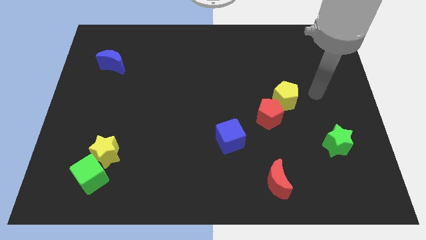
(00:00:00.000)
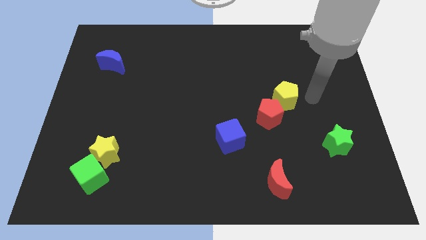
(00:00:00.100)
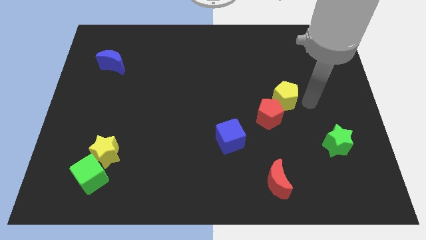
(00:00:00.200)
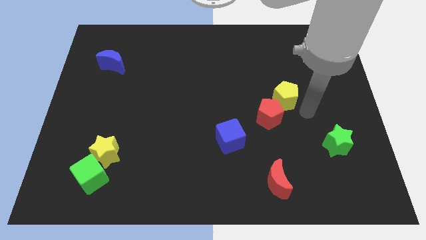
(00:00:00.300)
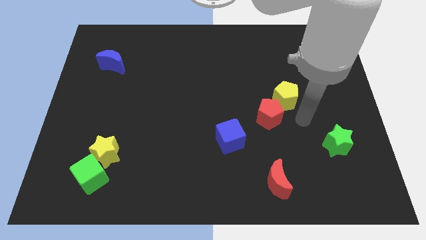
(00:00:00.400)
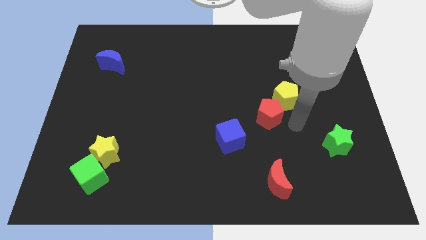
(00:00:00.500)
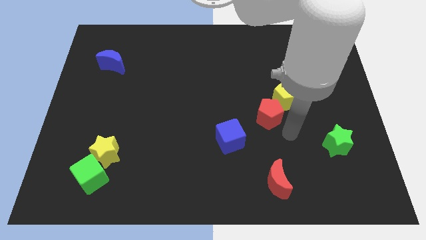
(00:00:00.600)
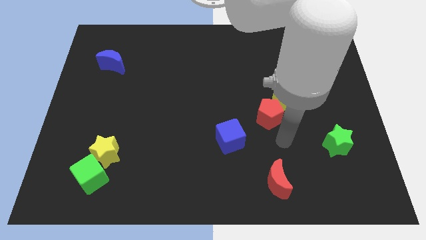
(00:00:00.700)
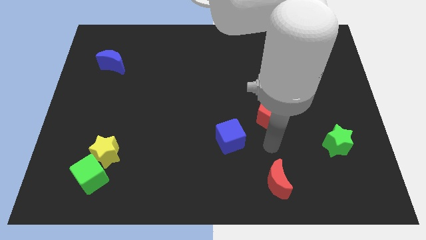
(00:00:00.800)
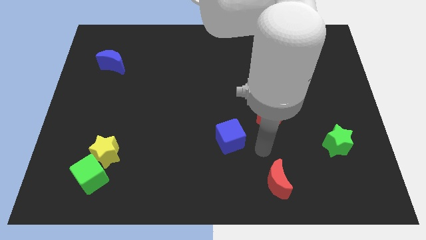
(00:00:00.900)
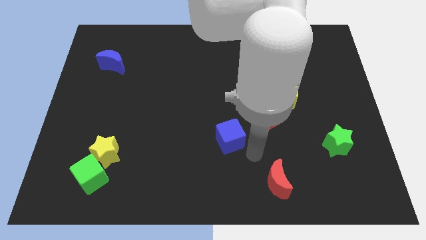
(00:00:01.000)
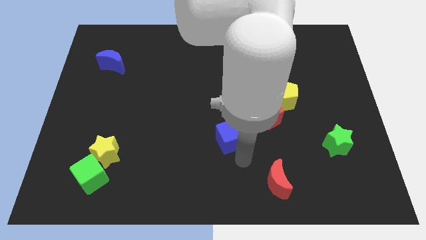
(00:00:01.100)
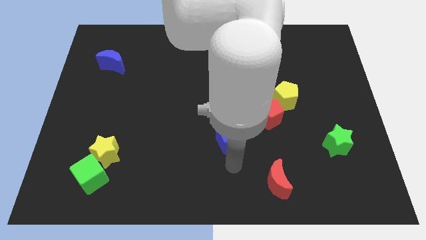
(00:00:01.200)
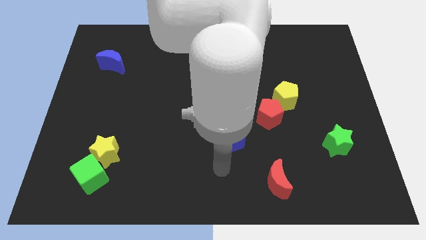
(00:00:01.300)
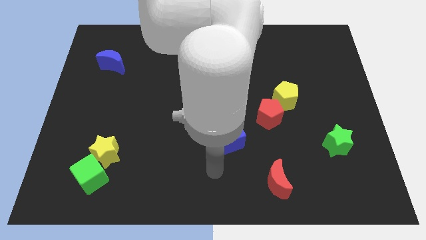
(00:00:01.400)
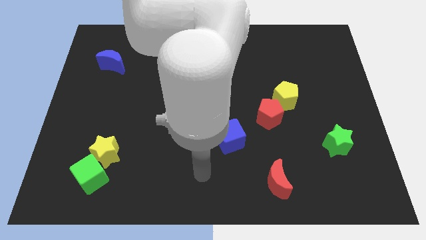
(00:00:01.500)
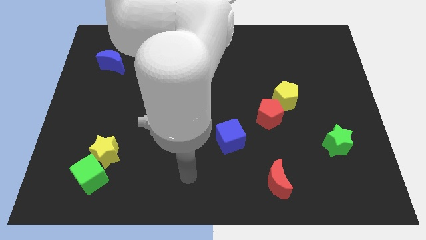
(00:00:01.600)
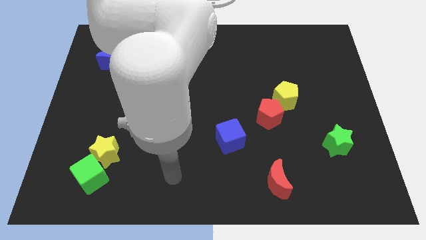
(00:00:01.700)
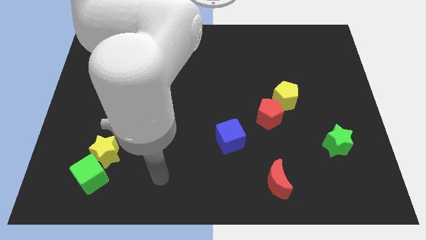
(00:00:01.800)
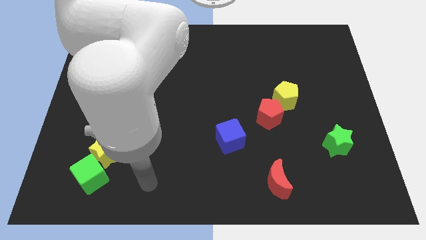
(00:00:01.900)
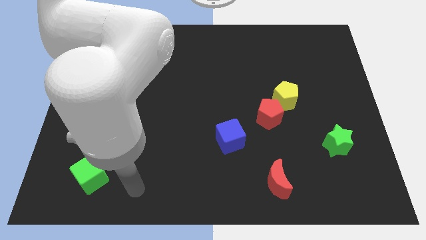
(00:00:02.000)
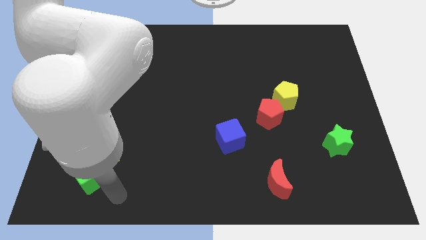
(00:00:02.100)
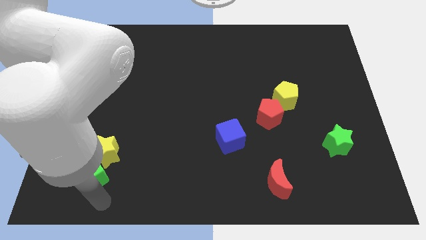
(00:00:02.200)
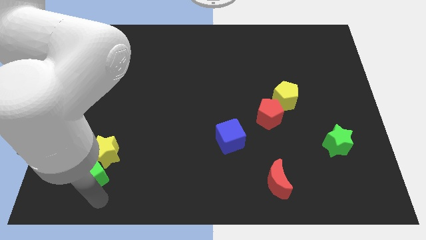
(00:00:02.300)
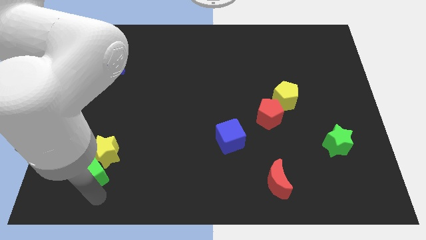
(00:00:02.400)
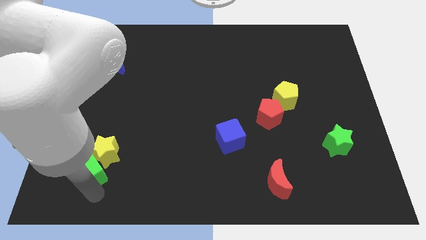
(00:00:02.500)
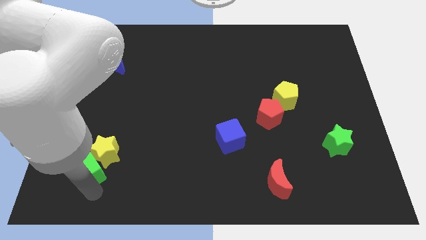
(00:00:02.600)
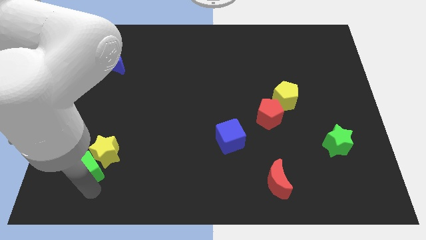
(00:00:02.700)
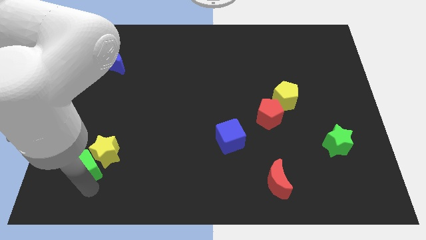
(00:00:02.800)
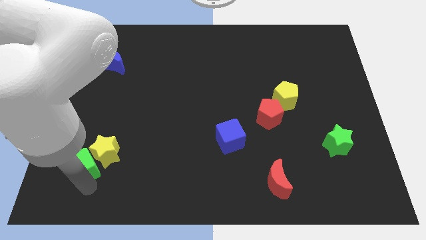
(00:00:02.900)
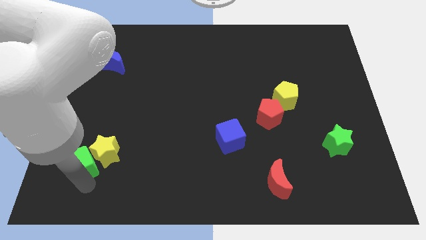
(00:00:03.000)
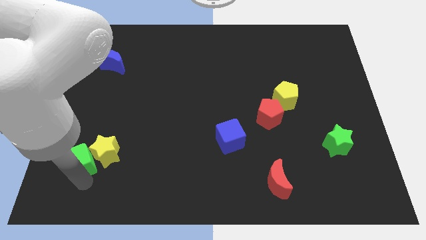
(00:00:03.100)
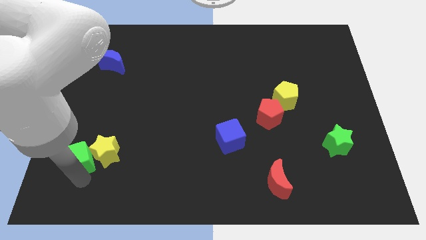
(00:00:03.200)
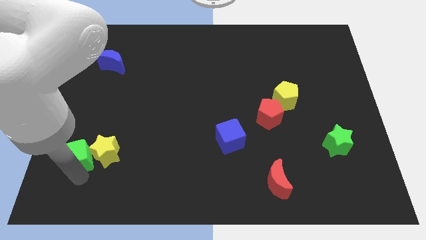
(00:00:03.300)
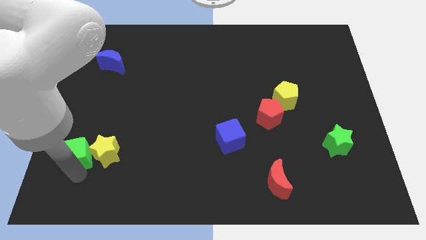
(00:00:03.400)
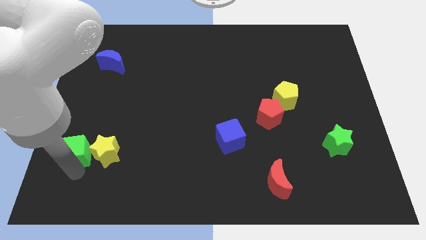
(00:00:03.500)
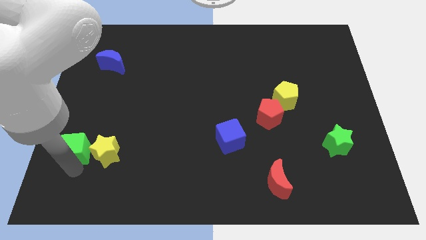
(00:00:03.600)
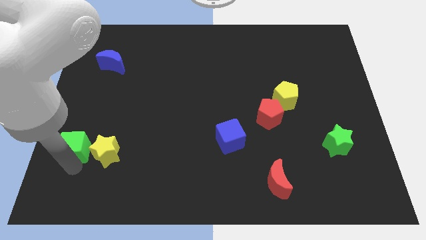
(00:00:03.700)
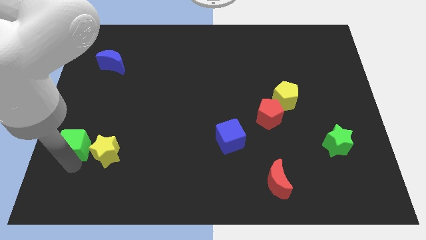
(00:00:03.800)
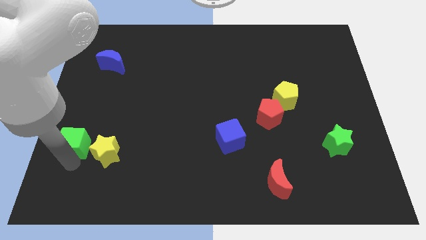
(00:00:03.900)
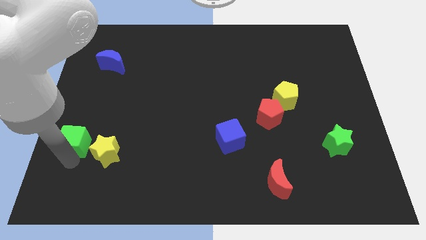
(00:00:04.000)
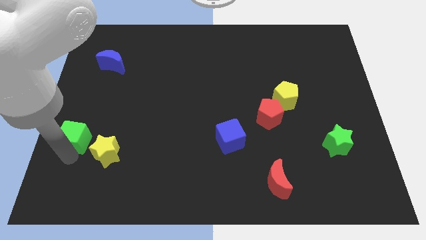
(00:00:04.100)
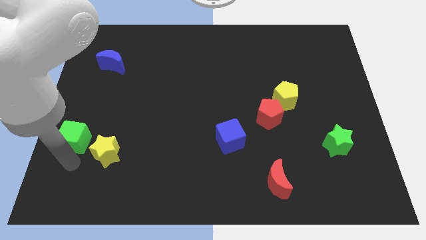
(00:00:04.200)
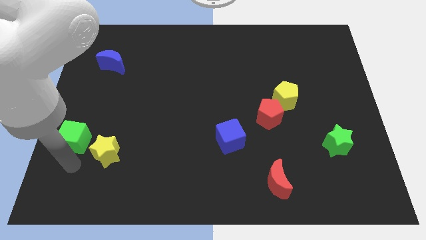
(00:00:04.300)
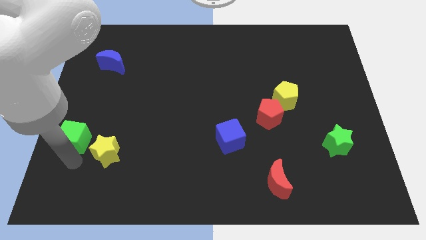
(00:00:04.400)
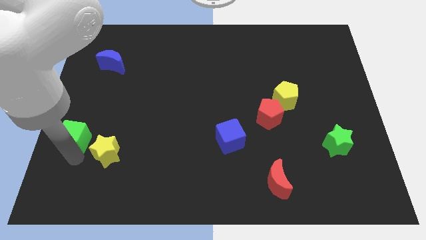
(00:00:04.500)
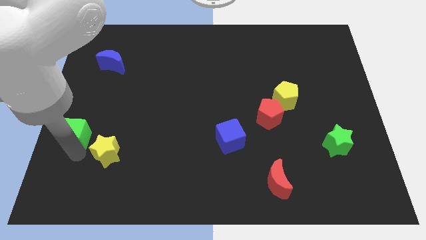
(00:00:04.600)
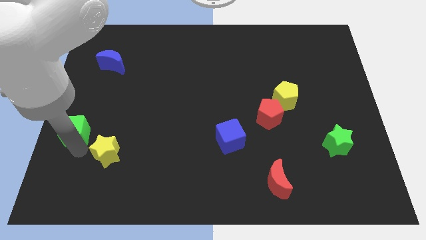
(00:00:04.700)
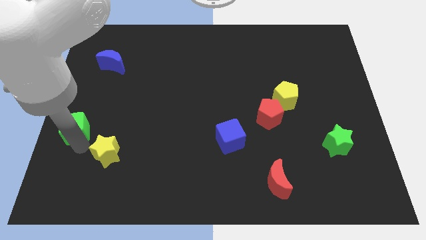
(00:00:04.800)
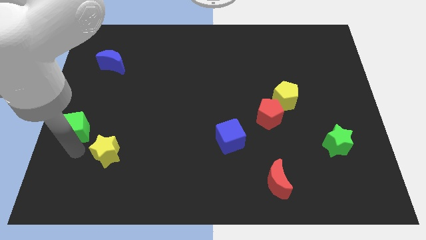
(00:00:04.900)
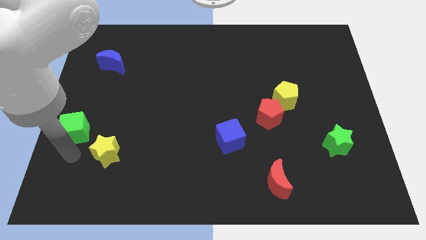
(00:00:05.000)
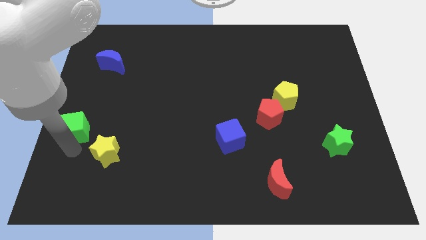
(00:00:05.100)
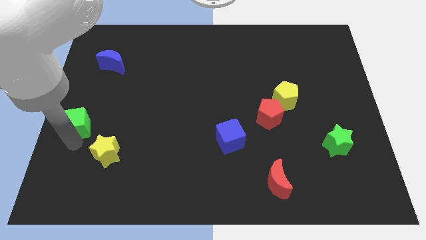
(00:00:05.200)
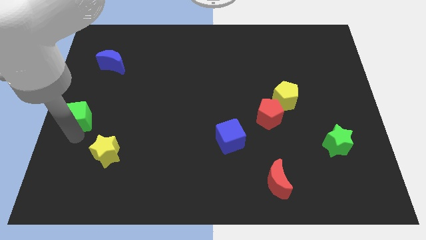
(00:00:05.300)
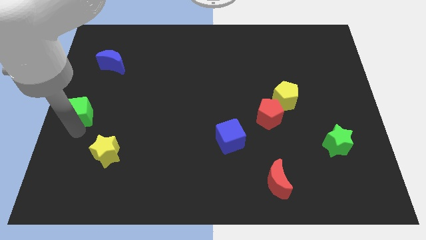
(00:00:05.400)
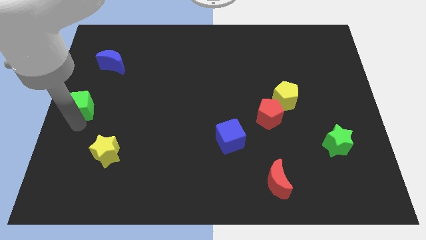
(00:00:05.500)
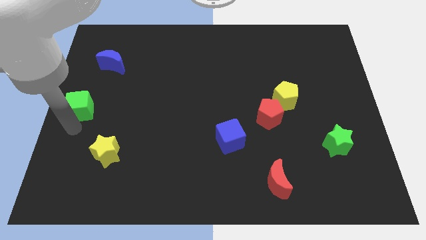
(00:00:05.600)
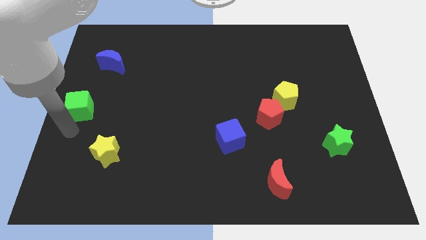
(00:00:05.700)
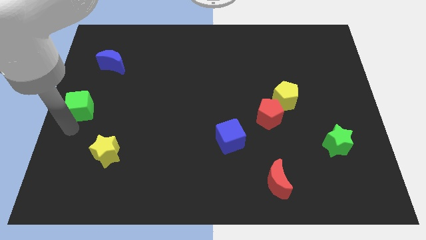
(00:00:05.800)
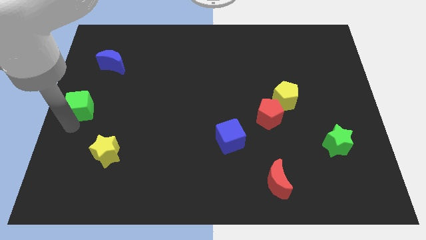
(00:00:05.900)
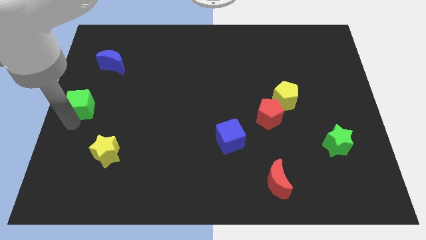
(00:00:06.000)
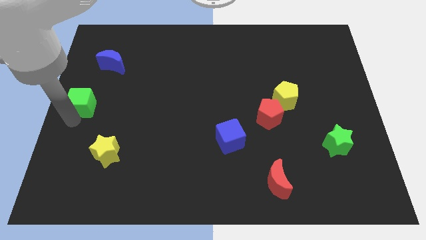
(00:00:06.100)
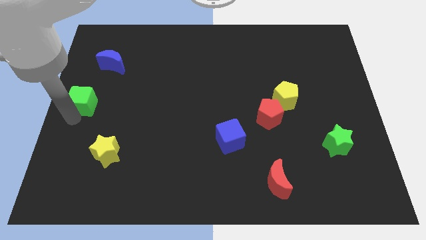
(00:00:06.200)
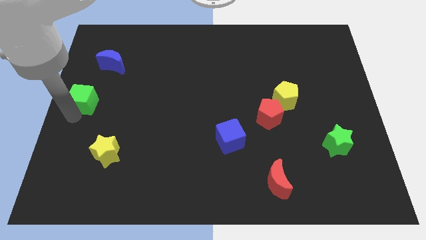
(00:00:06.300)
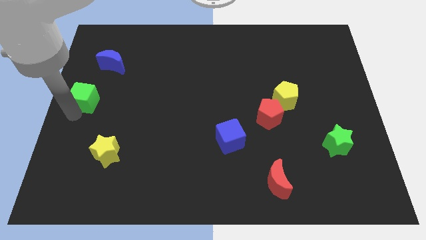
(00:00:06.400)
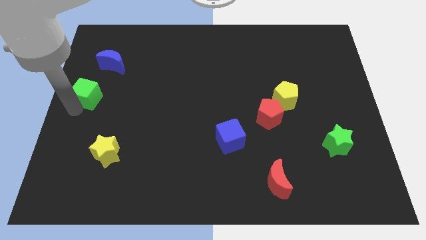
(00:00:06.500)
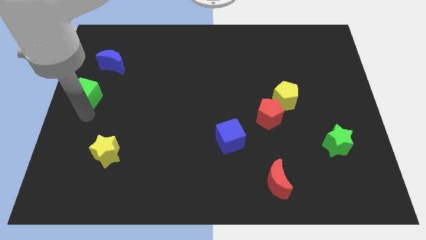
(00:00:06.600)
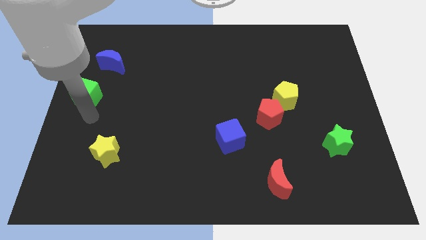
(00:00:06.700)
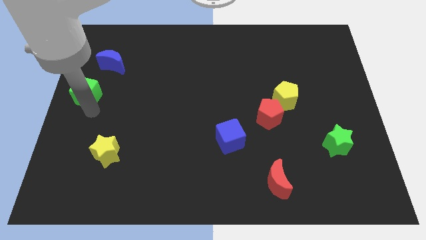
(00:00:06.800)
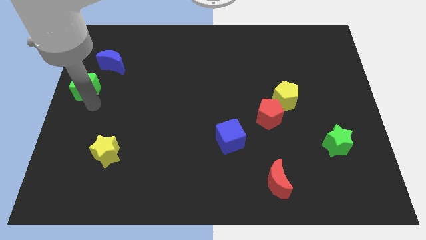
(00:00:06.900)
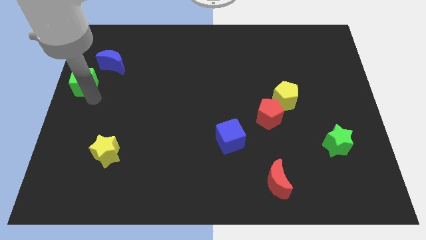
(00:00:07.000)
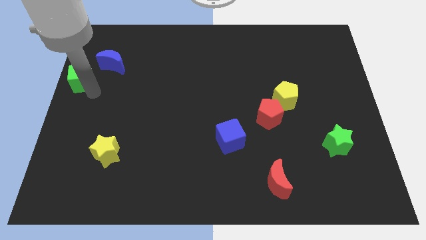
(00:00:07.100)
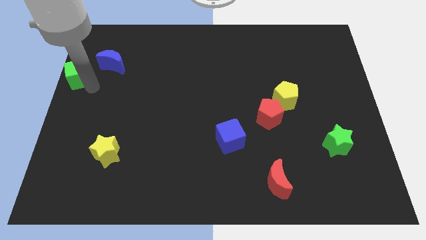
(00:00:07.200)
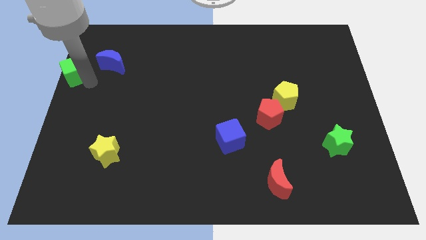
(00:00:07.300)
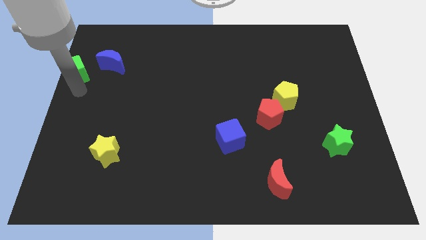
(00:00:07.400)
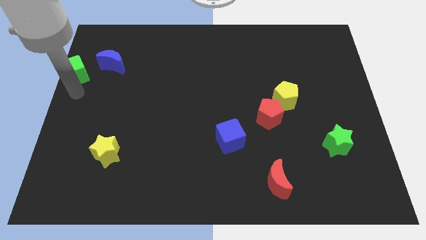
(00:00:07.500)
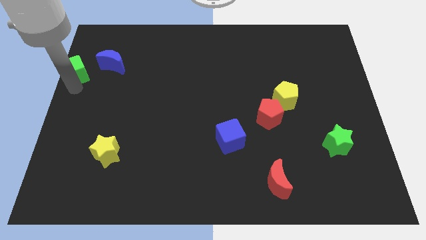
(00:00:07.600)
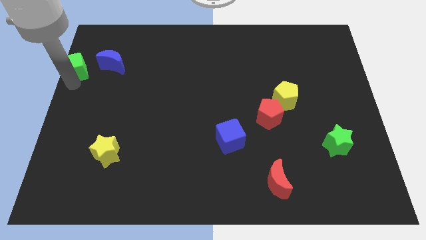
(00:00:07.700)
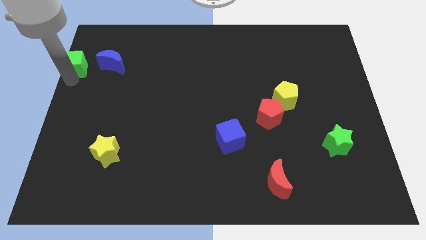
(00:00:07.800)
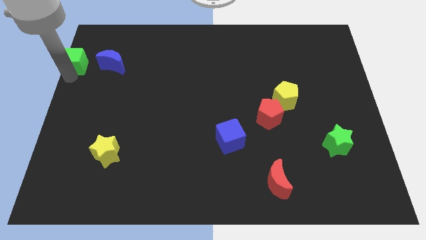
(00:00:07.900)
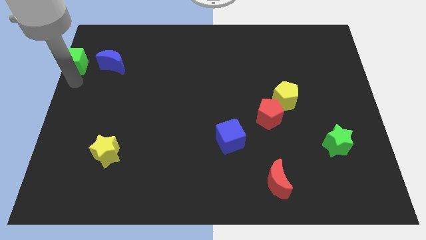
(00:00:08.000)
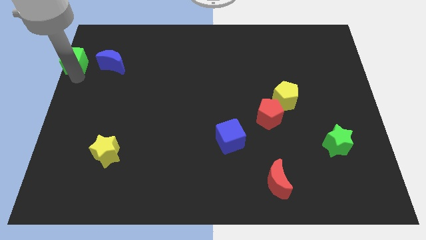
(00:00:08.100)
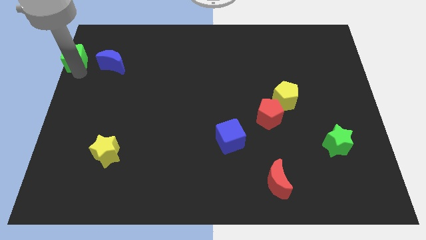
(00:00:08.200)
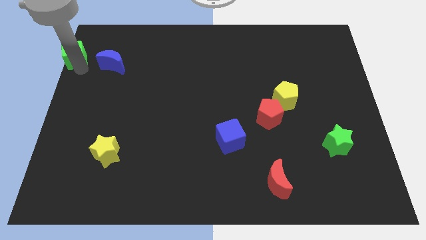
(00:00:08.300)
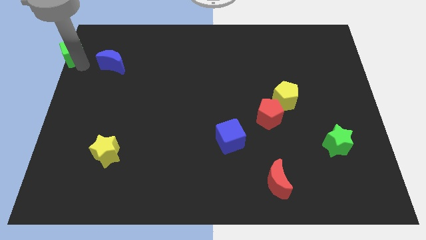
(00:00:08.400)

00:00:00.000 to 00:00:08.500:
move the green cube to the top left corner
